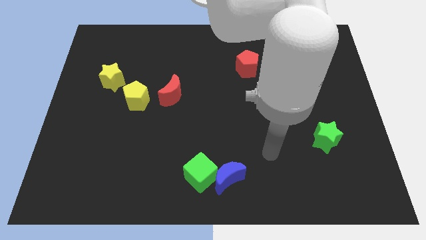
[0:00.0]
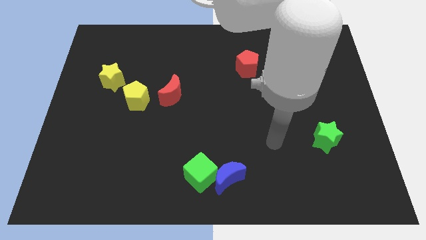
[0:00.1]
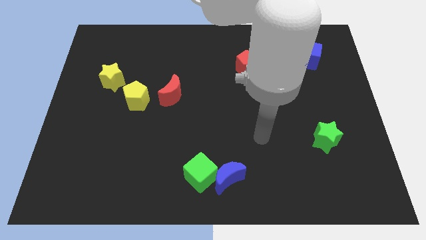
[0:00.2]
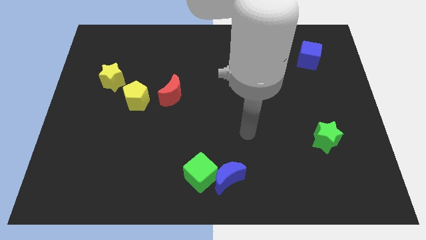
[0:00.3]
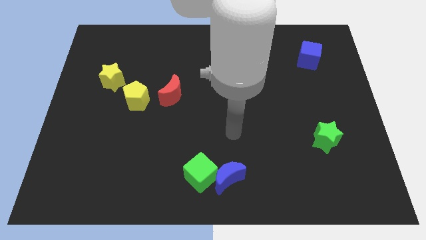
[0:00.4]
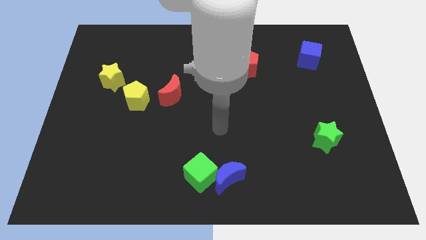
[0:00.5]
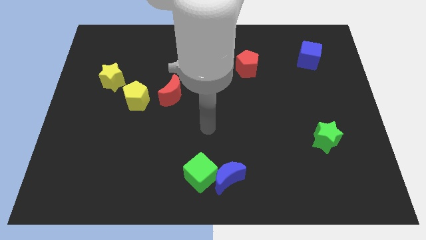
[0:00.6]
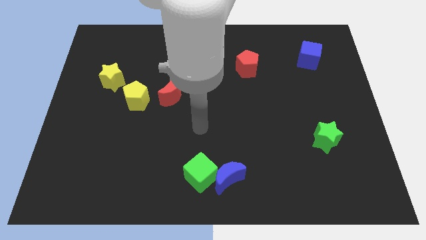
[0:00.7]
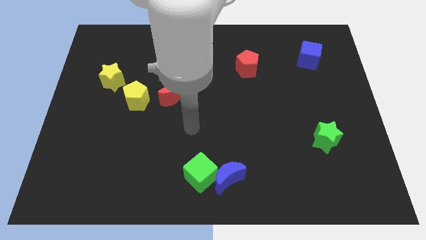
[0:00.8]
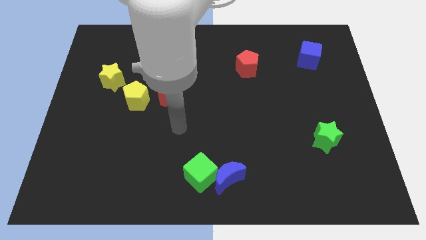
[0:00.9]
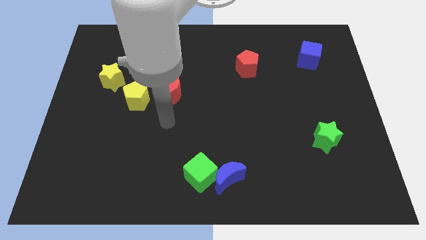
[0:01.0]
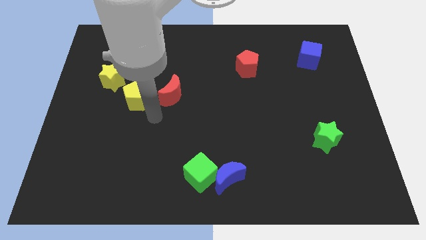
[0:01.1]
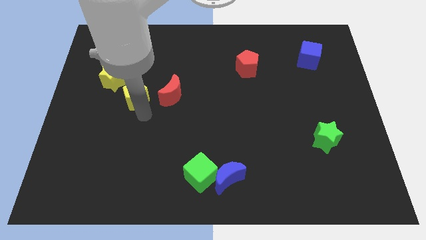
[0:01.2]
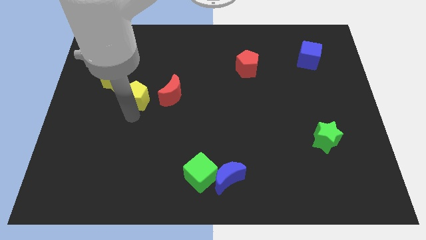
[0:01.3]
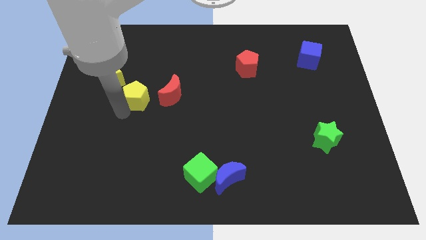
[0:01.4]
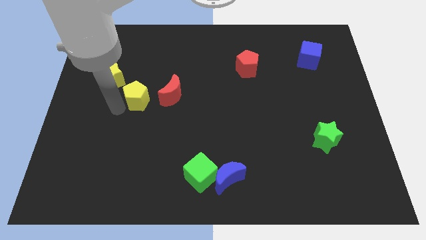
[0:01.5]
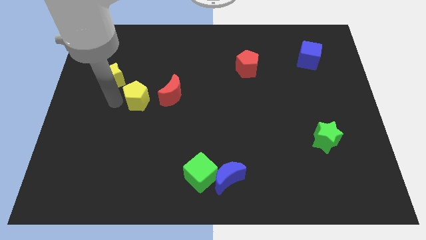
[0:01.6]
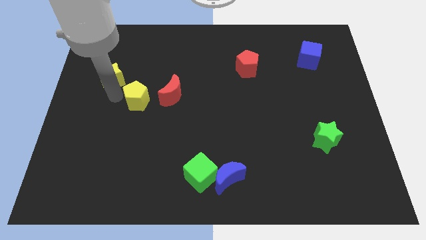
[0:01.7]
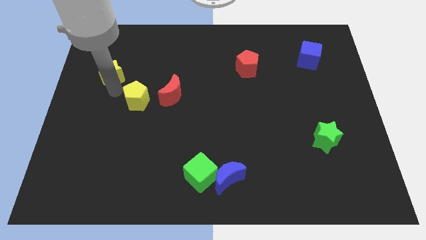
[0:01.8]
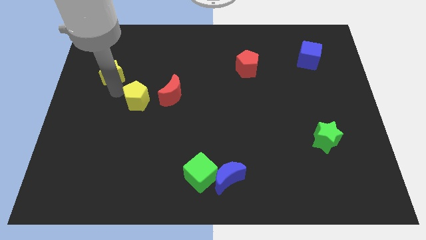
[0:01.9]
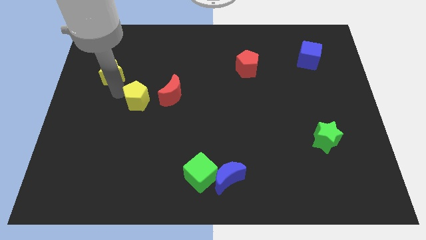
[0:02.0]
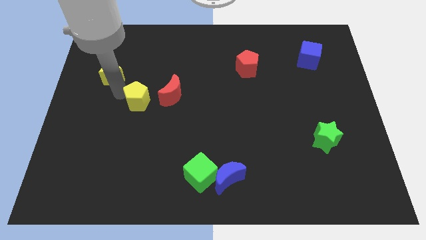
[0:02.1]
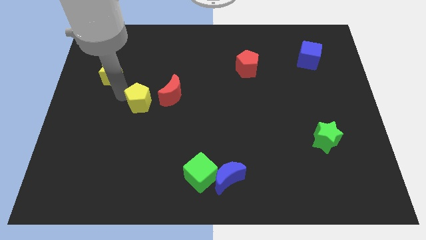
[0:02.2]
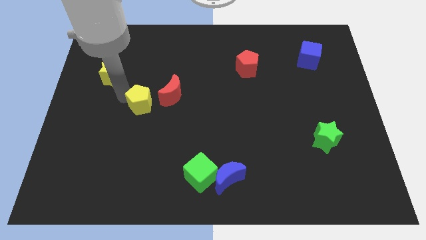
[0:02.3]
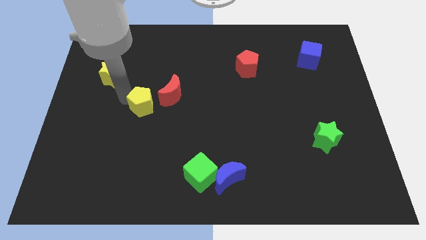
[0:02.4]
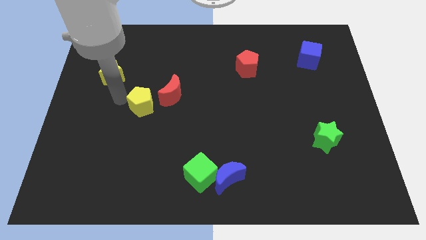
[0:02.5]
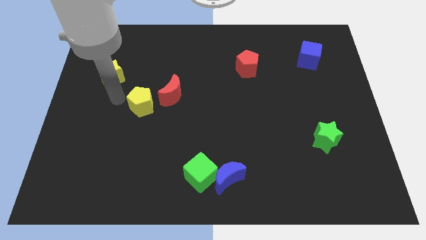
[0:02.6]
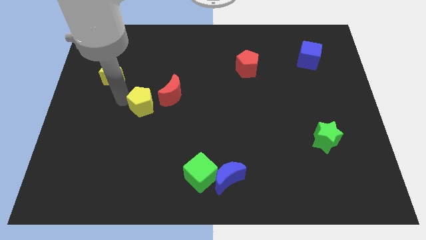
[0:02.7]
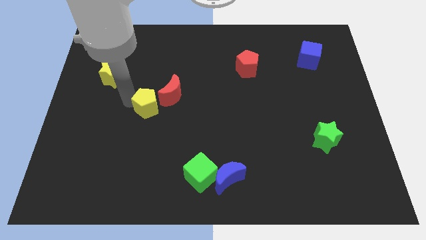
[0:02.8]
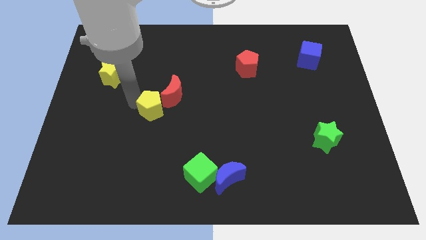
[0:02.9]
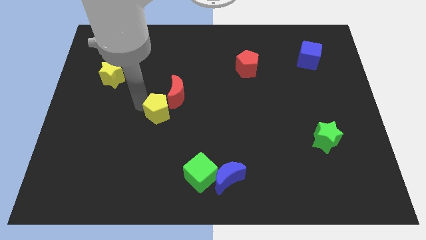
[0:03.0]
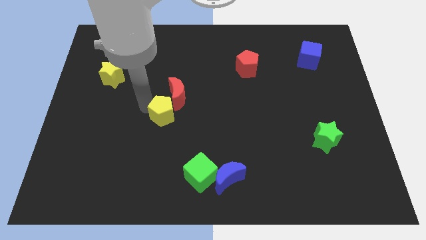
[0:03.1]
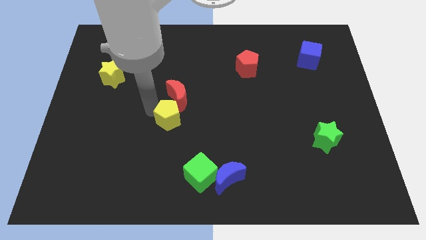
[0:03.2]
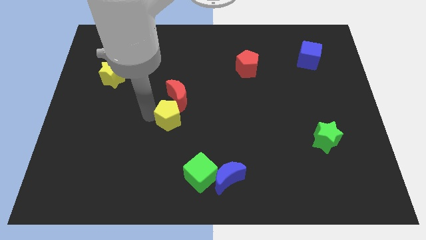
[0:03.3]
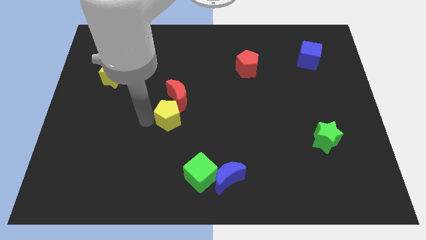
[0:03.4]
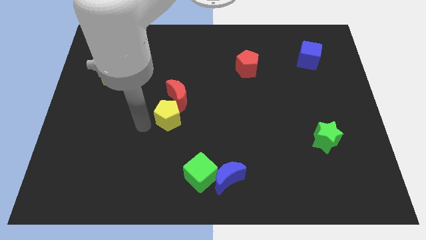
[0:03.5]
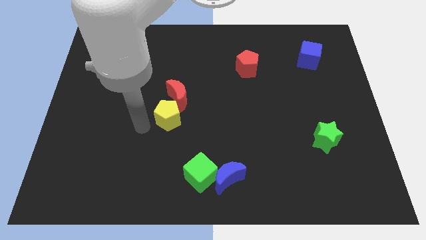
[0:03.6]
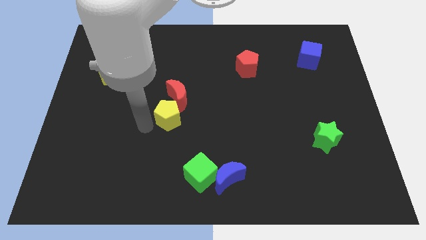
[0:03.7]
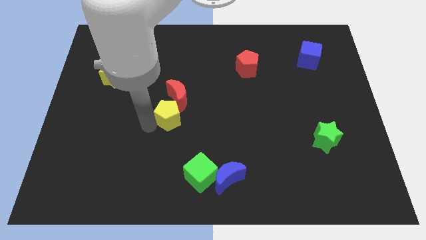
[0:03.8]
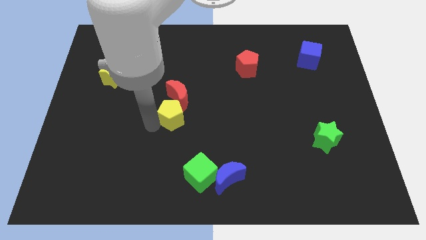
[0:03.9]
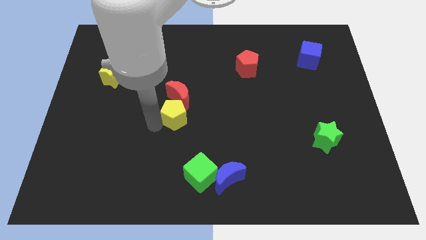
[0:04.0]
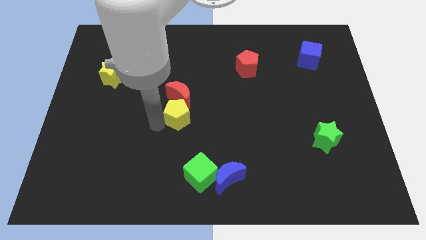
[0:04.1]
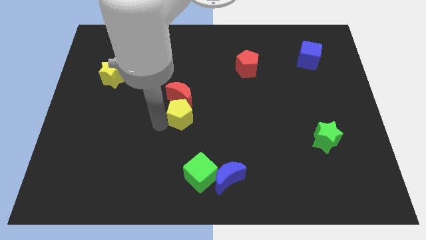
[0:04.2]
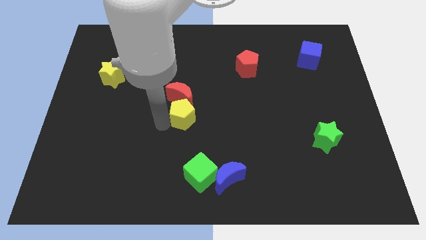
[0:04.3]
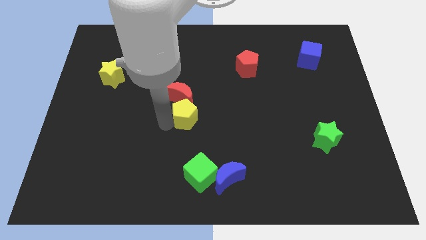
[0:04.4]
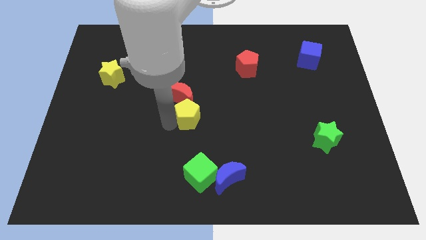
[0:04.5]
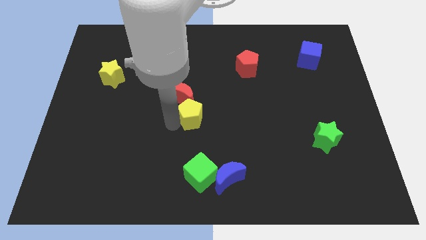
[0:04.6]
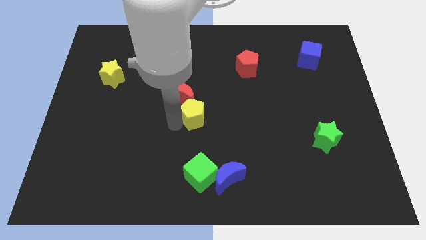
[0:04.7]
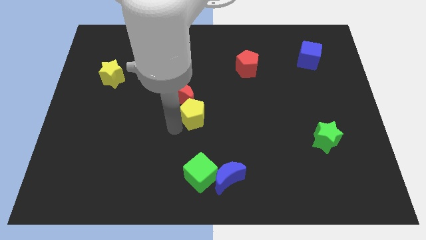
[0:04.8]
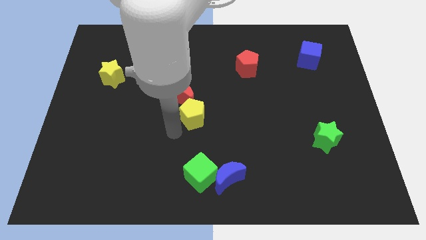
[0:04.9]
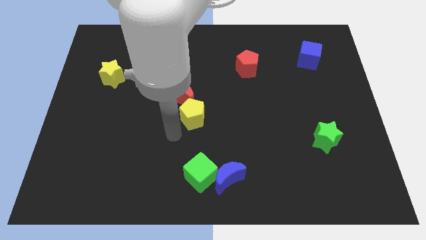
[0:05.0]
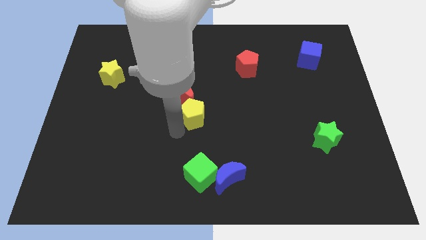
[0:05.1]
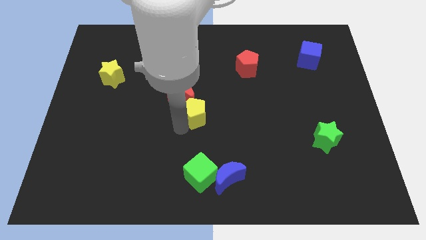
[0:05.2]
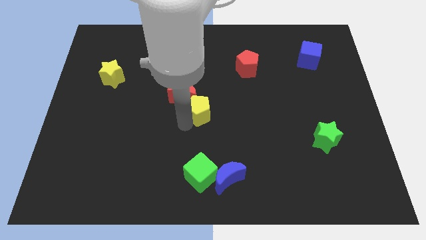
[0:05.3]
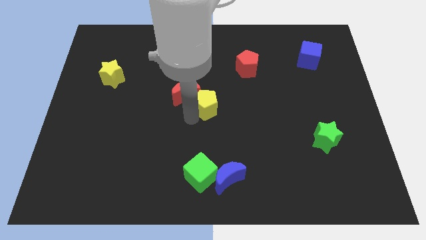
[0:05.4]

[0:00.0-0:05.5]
slide the yellow pentagon to the right side of the red moon

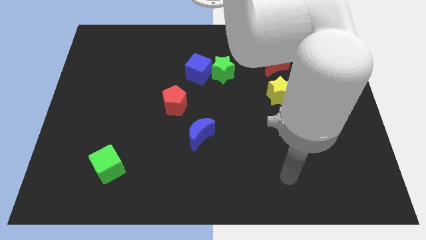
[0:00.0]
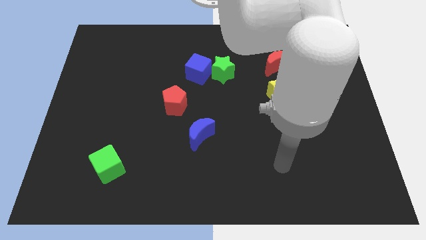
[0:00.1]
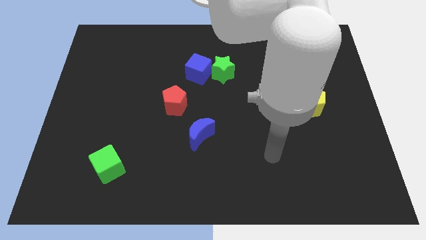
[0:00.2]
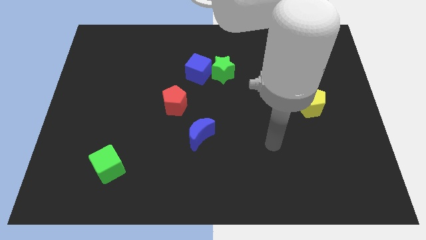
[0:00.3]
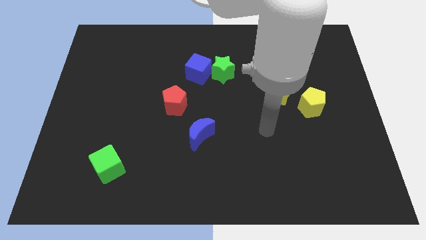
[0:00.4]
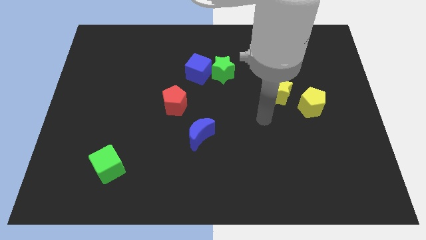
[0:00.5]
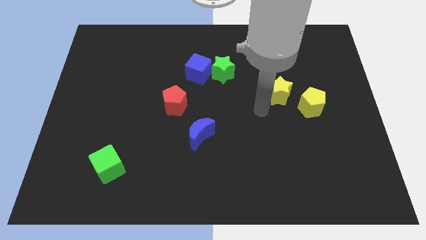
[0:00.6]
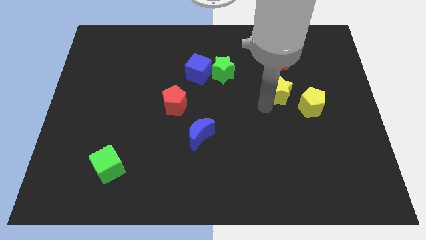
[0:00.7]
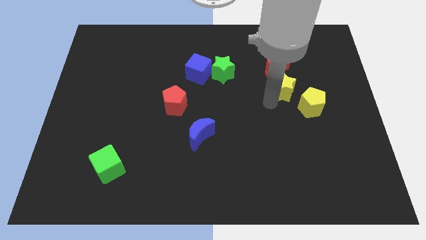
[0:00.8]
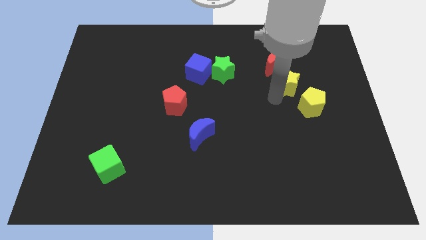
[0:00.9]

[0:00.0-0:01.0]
slide the yellow star to the bottom right side of the red moon

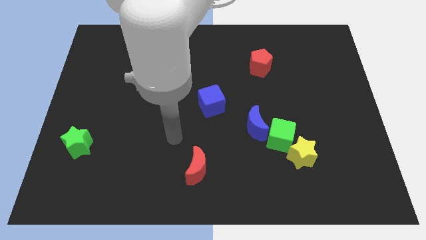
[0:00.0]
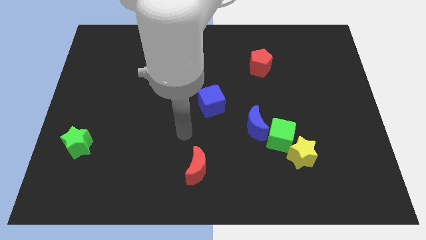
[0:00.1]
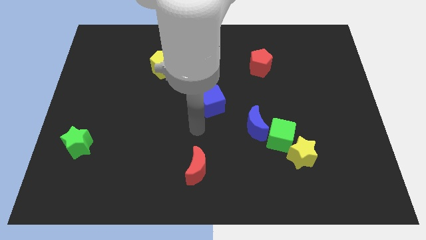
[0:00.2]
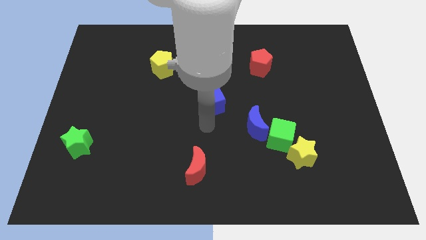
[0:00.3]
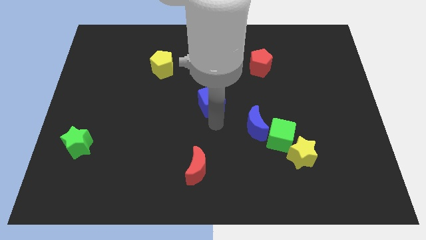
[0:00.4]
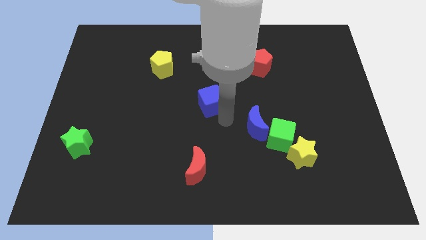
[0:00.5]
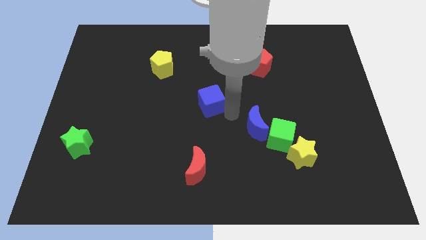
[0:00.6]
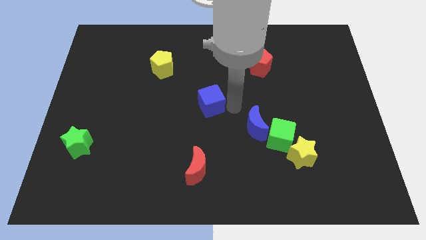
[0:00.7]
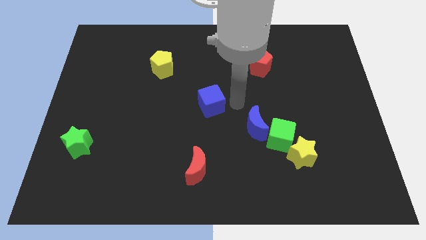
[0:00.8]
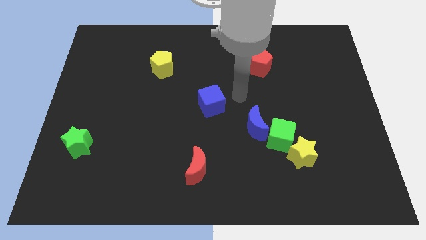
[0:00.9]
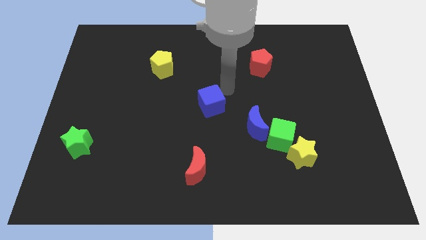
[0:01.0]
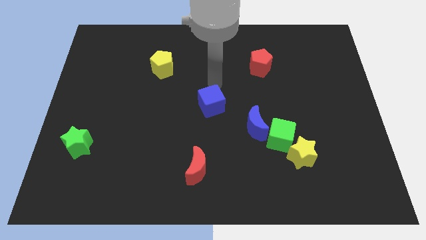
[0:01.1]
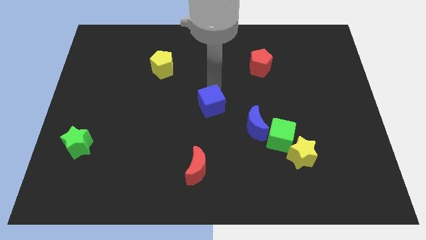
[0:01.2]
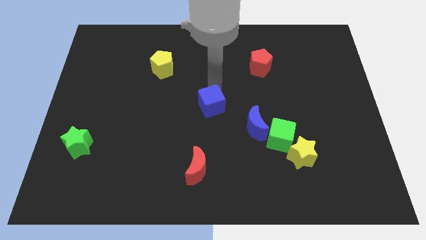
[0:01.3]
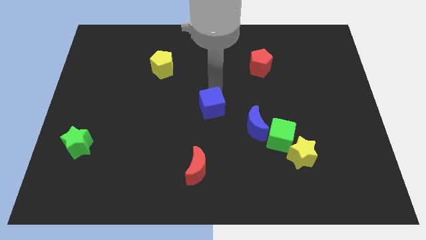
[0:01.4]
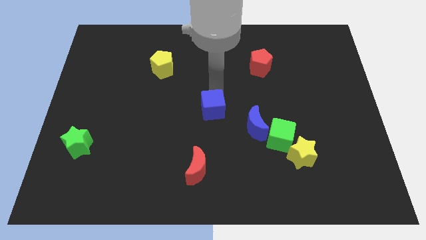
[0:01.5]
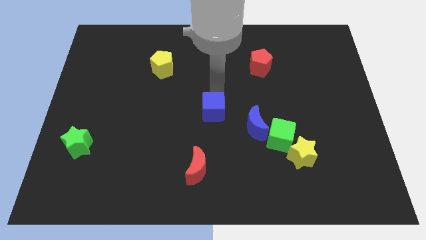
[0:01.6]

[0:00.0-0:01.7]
move the blue cube left of the blue moon
